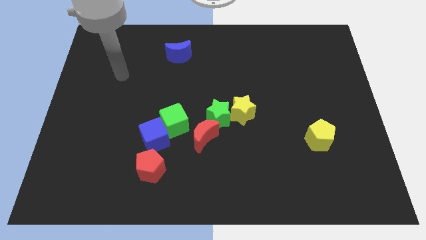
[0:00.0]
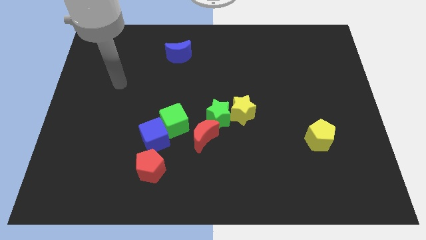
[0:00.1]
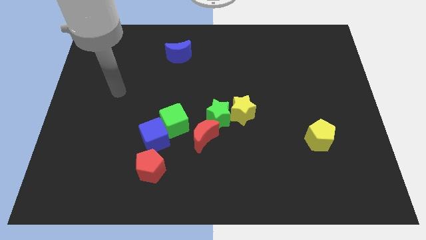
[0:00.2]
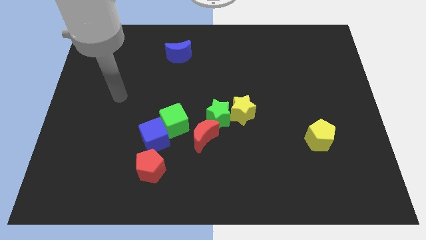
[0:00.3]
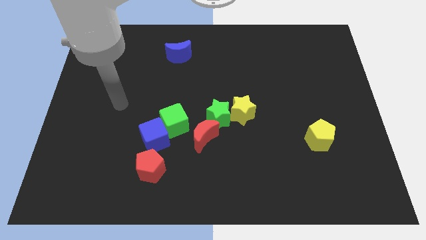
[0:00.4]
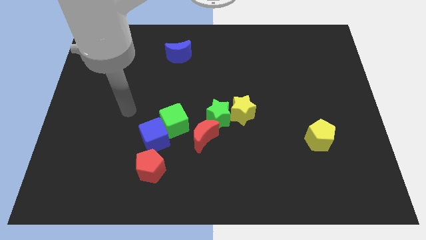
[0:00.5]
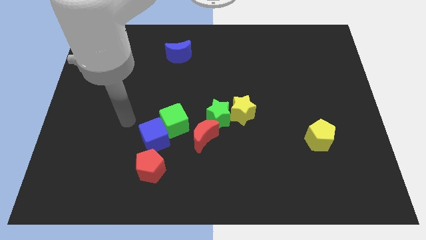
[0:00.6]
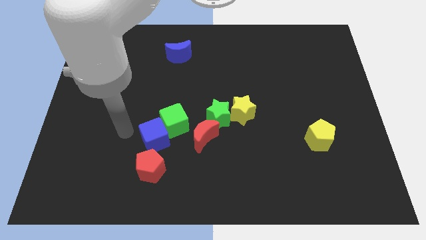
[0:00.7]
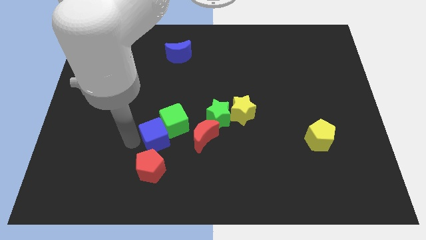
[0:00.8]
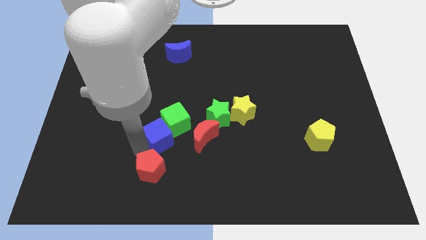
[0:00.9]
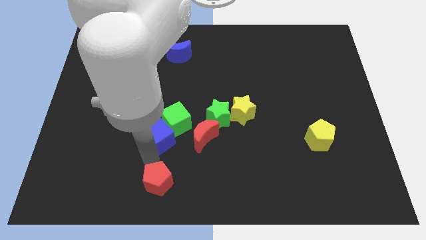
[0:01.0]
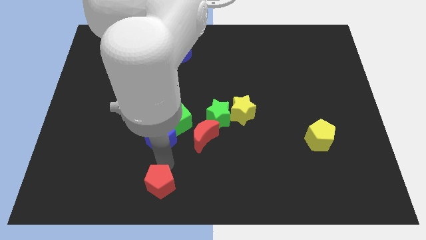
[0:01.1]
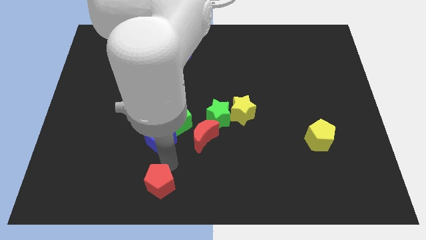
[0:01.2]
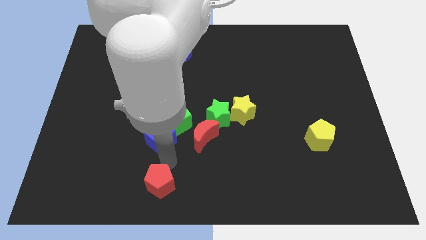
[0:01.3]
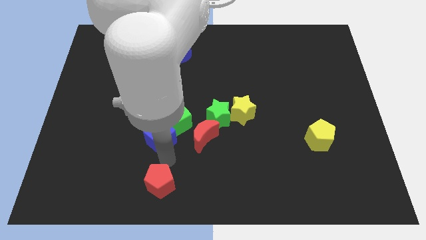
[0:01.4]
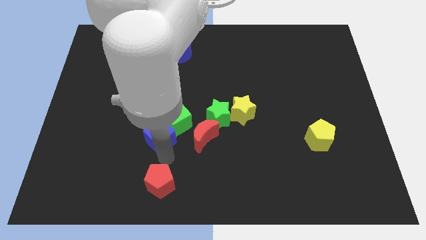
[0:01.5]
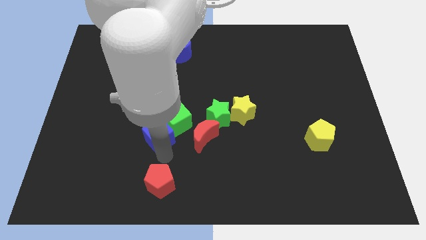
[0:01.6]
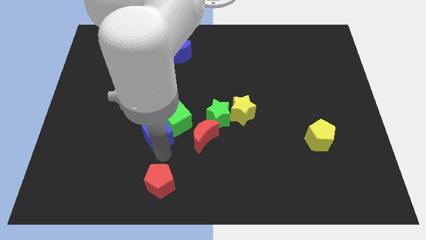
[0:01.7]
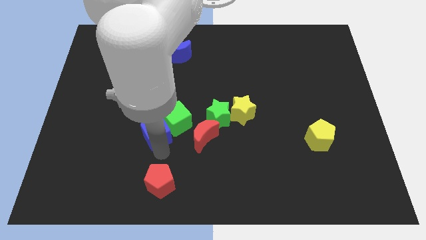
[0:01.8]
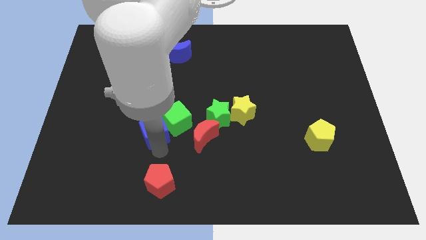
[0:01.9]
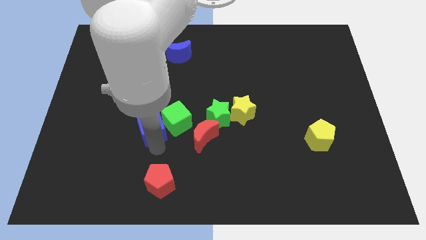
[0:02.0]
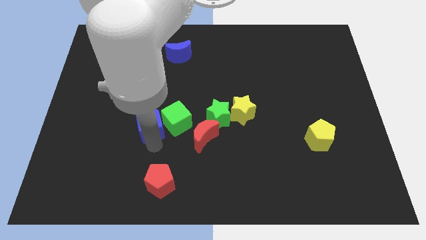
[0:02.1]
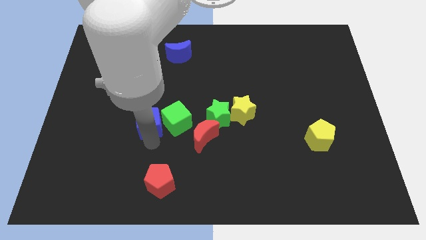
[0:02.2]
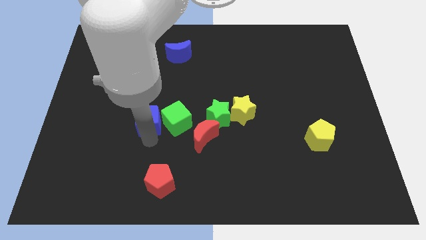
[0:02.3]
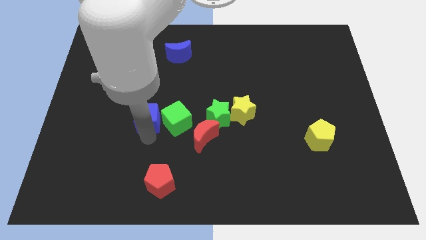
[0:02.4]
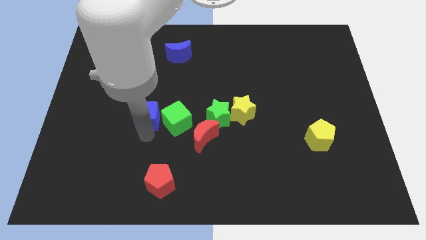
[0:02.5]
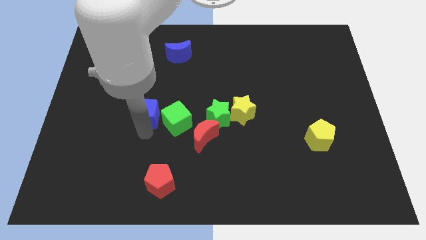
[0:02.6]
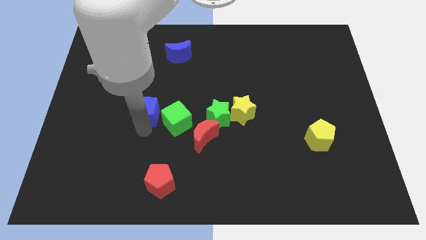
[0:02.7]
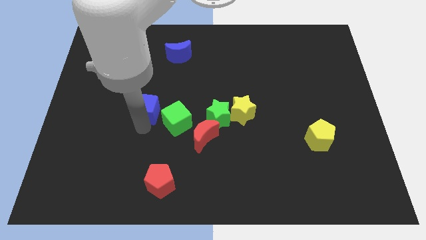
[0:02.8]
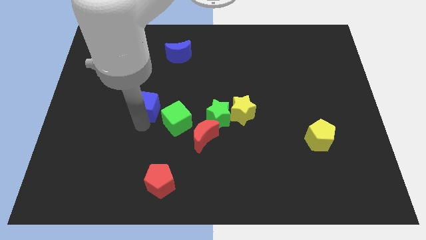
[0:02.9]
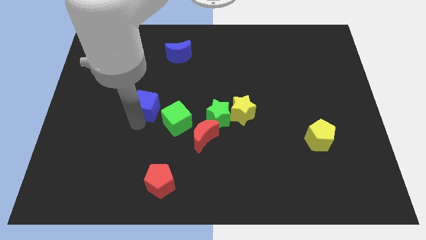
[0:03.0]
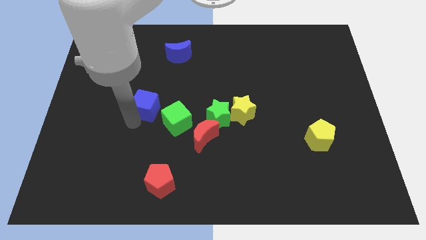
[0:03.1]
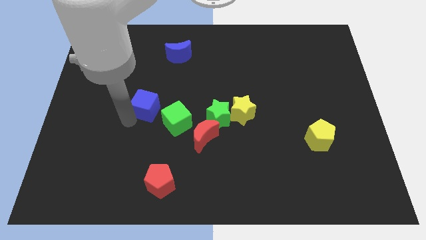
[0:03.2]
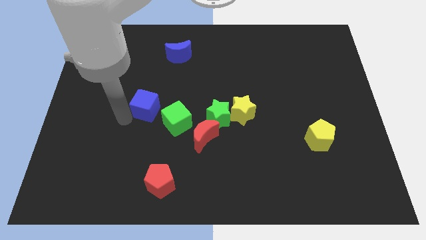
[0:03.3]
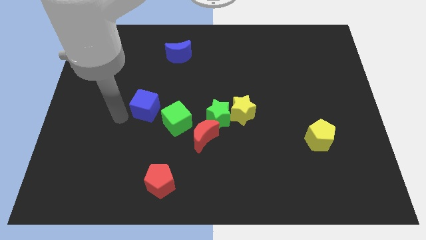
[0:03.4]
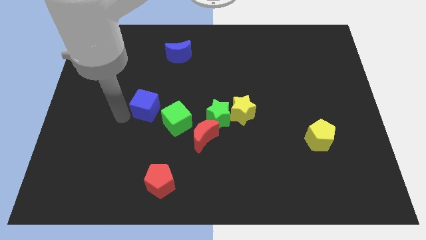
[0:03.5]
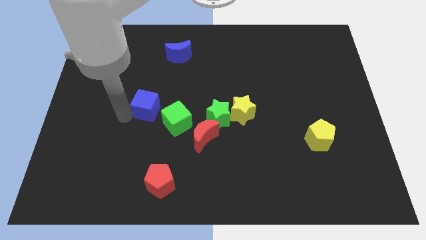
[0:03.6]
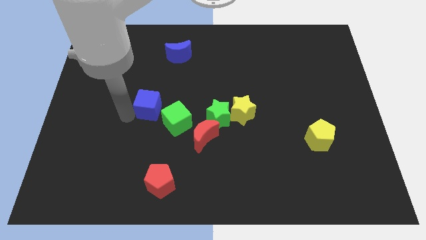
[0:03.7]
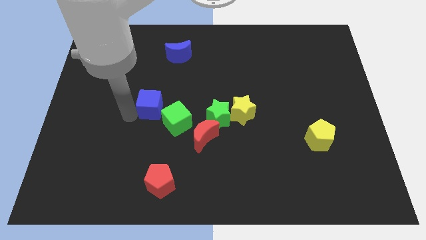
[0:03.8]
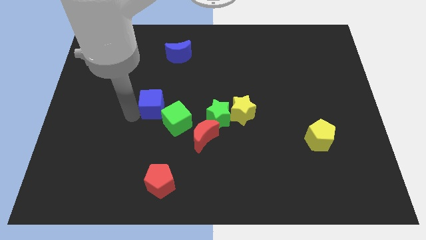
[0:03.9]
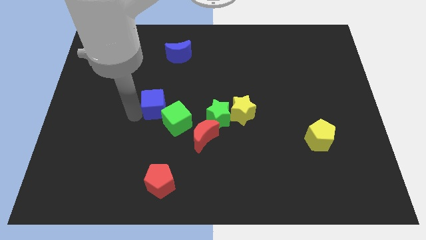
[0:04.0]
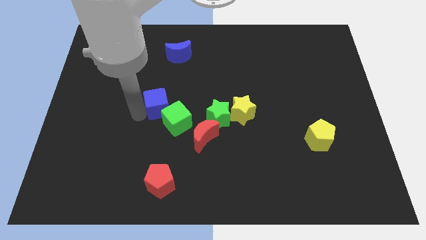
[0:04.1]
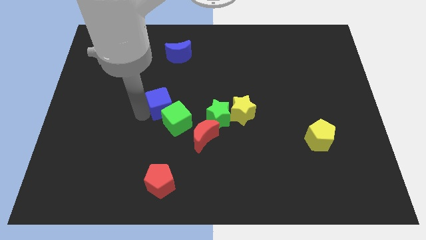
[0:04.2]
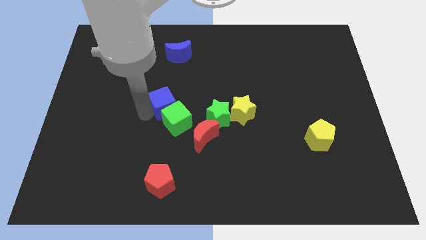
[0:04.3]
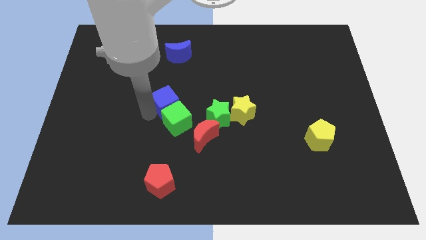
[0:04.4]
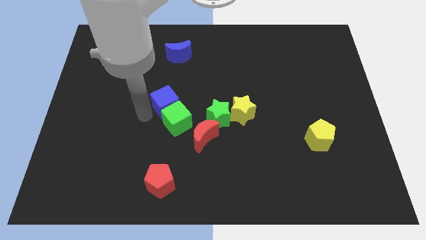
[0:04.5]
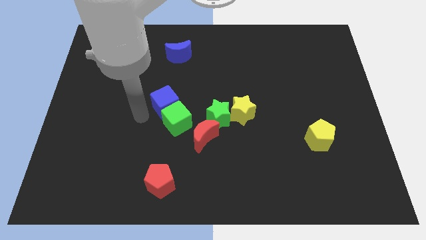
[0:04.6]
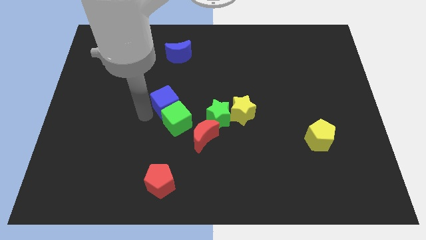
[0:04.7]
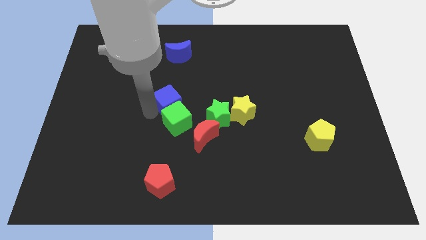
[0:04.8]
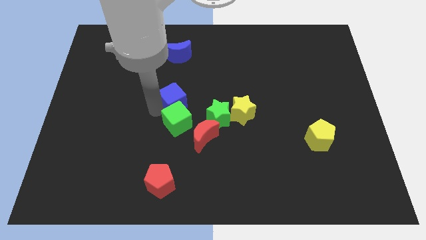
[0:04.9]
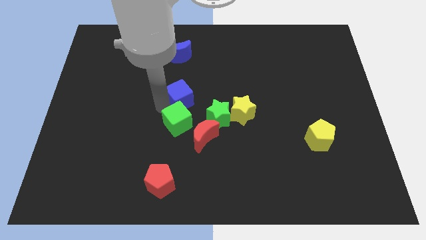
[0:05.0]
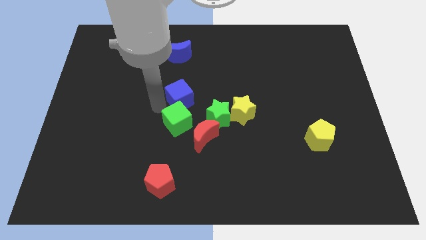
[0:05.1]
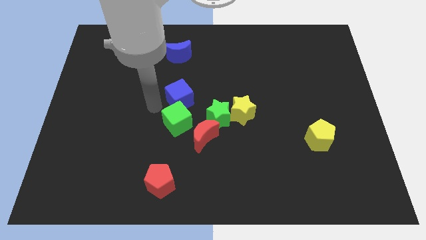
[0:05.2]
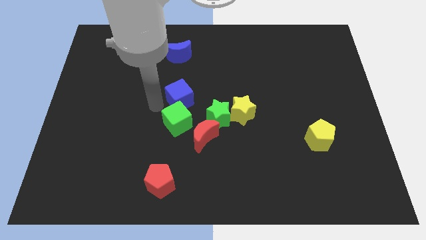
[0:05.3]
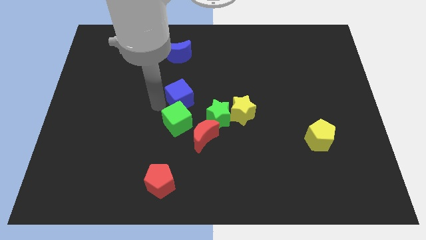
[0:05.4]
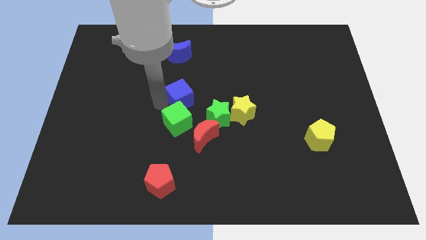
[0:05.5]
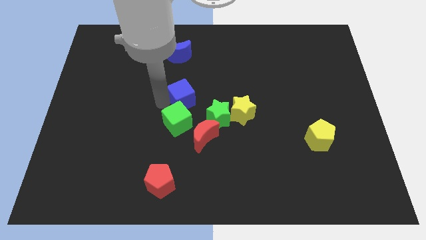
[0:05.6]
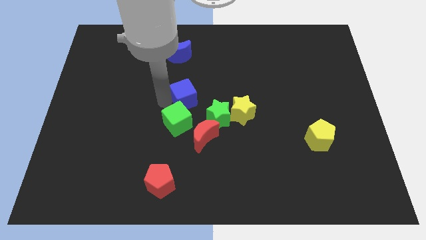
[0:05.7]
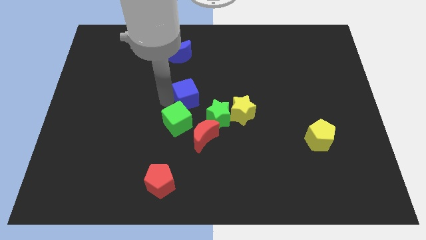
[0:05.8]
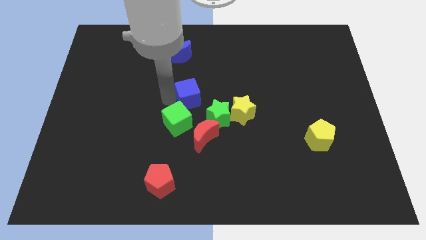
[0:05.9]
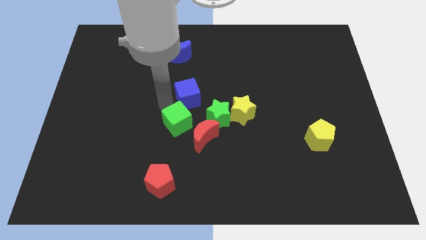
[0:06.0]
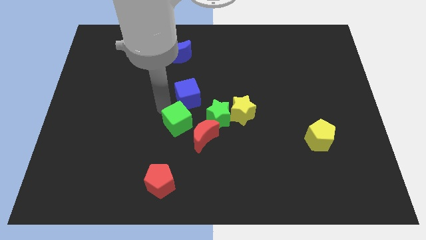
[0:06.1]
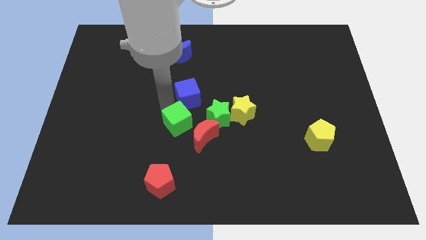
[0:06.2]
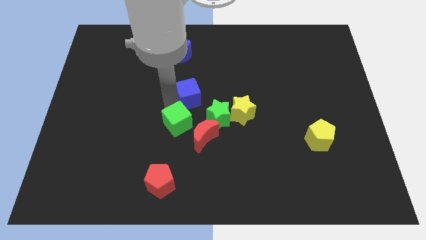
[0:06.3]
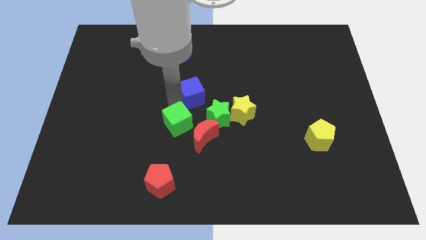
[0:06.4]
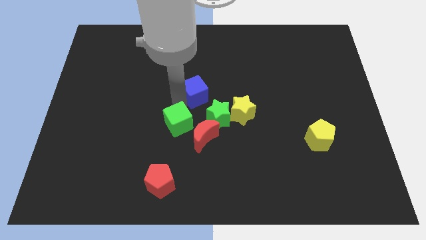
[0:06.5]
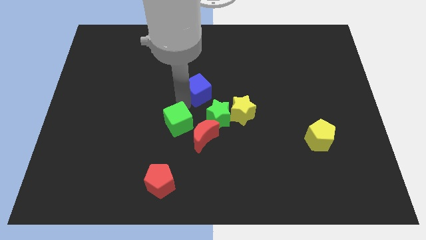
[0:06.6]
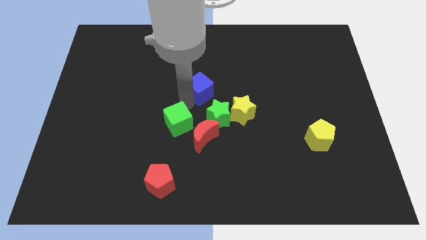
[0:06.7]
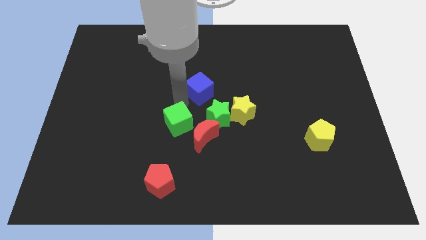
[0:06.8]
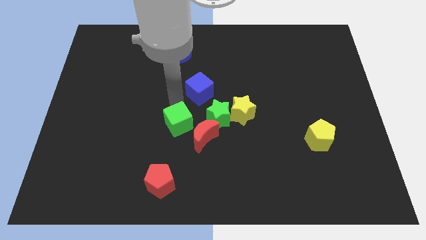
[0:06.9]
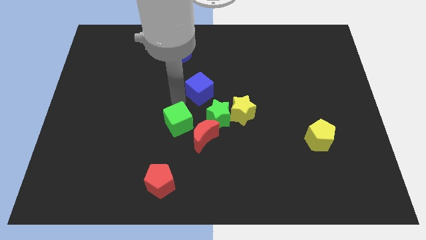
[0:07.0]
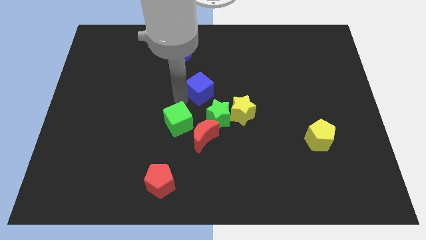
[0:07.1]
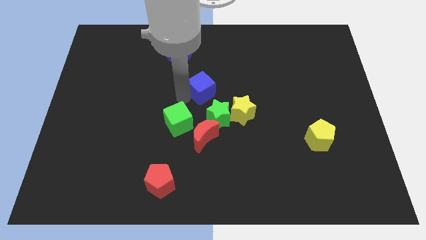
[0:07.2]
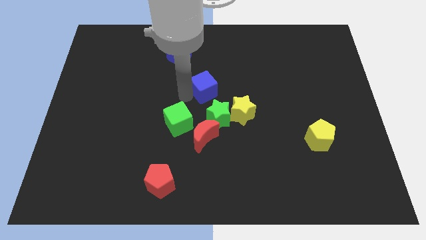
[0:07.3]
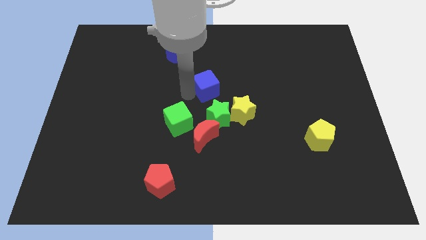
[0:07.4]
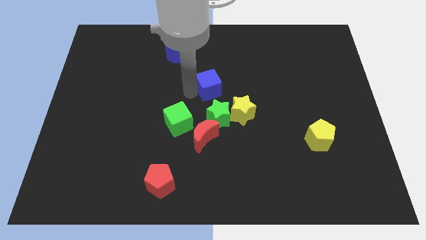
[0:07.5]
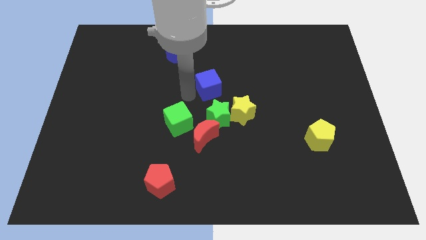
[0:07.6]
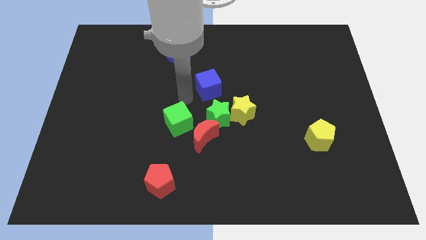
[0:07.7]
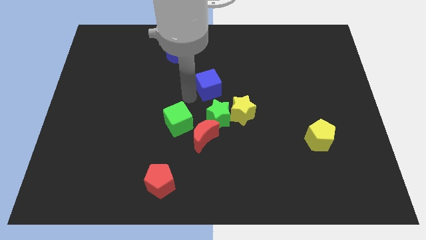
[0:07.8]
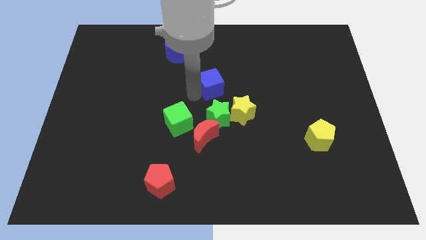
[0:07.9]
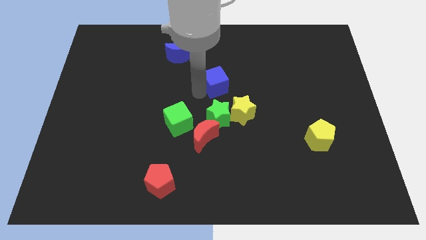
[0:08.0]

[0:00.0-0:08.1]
push the blue cube upwards and to the right
